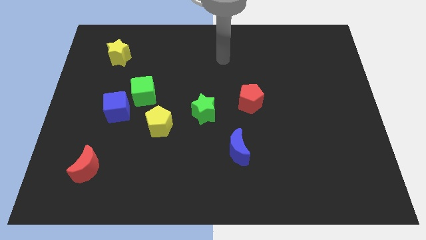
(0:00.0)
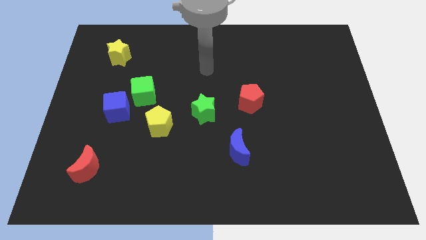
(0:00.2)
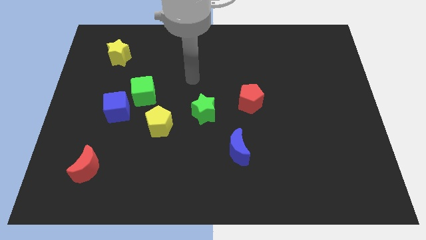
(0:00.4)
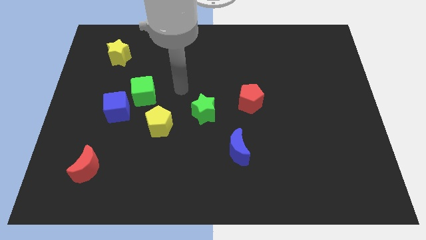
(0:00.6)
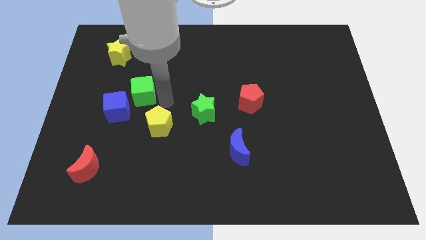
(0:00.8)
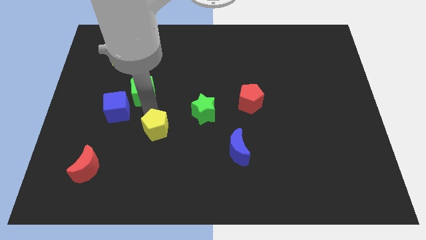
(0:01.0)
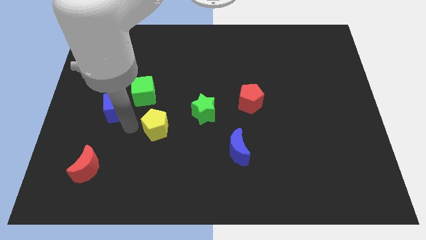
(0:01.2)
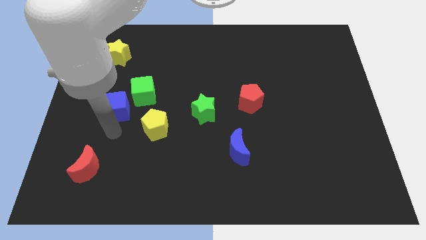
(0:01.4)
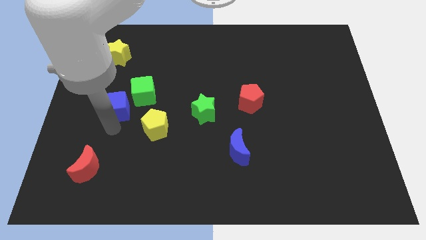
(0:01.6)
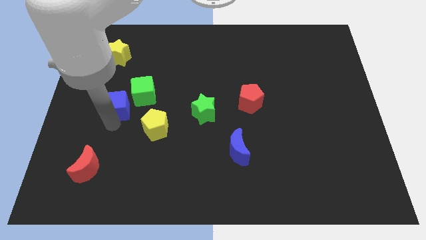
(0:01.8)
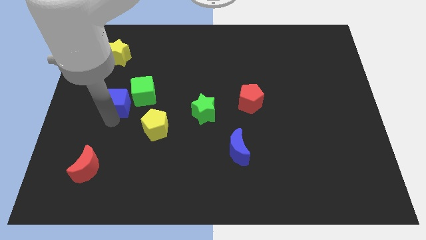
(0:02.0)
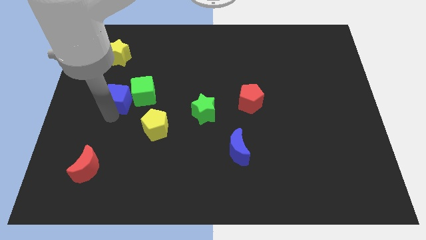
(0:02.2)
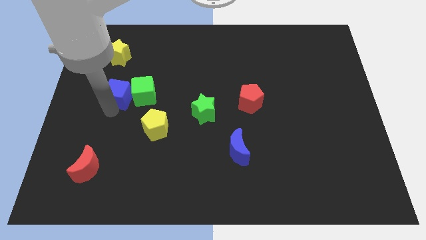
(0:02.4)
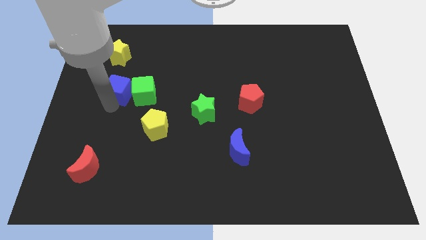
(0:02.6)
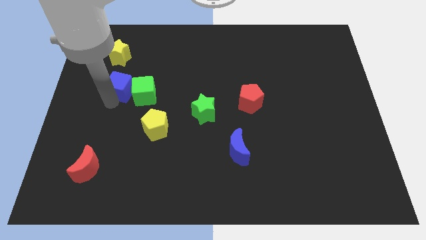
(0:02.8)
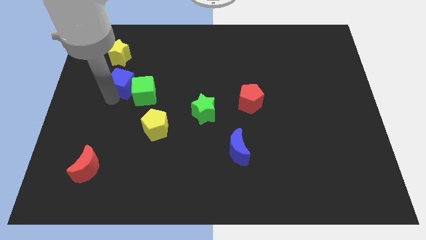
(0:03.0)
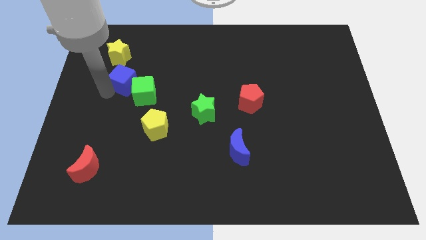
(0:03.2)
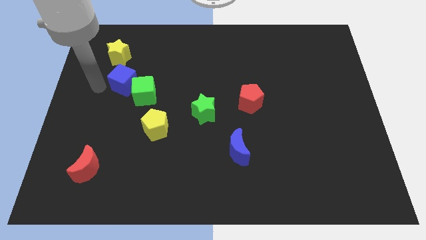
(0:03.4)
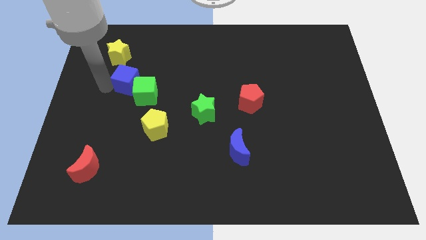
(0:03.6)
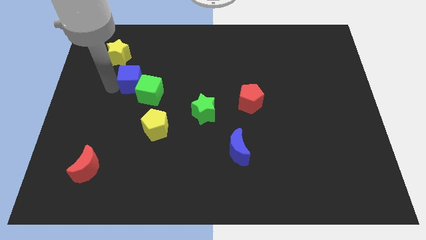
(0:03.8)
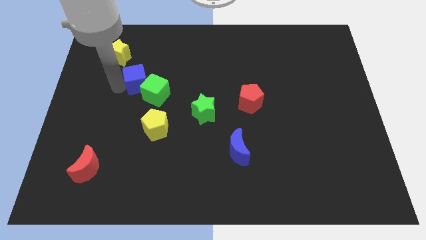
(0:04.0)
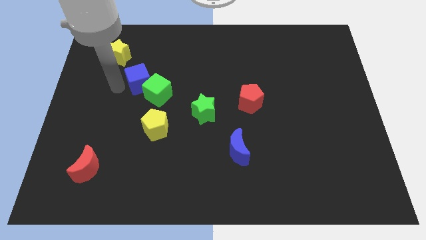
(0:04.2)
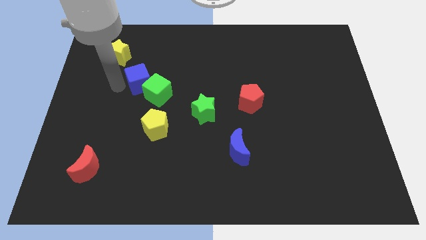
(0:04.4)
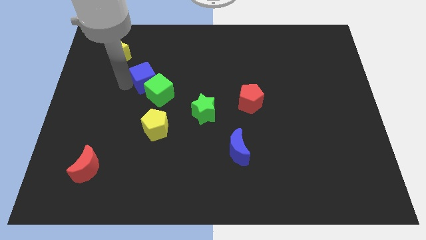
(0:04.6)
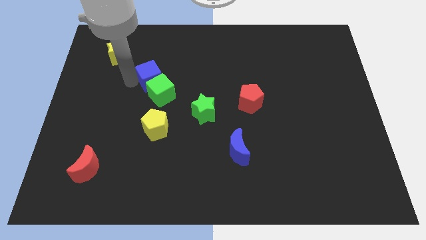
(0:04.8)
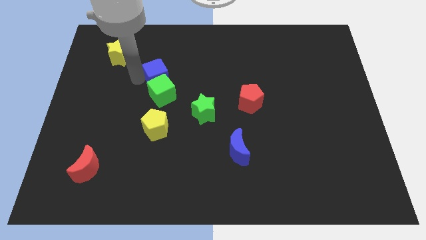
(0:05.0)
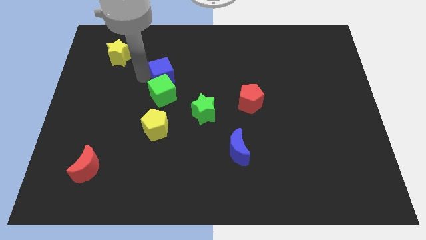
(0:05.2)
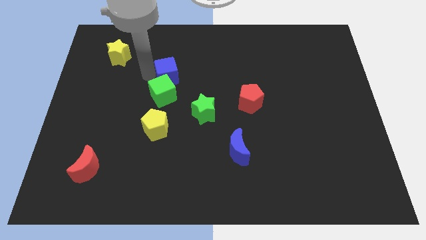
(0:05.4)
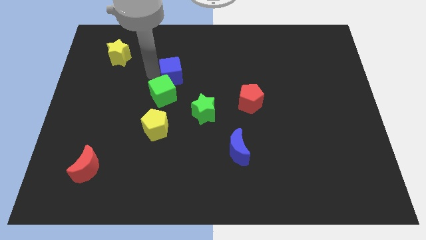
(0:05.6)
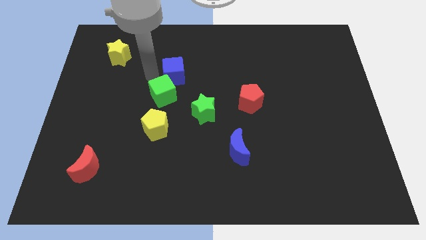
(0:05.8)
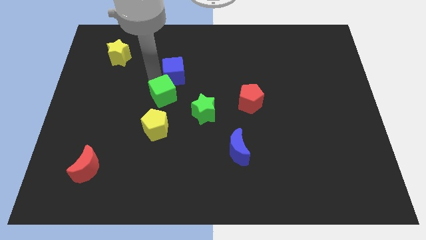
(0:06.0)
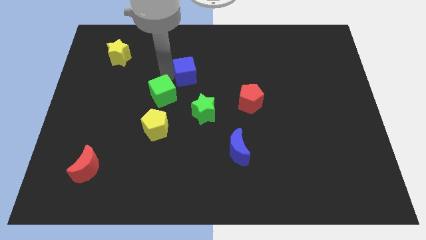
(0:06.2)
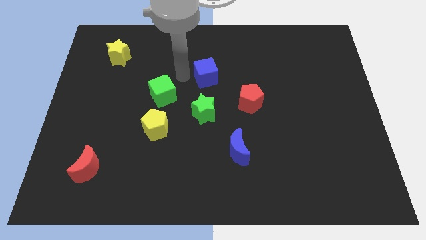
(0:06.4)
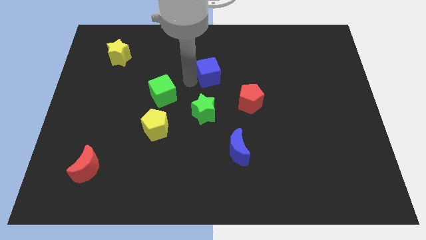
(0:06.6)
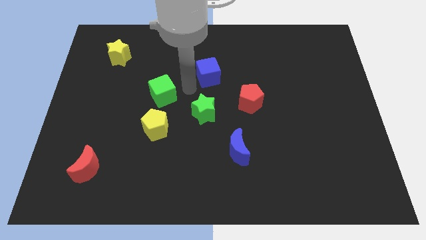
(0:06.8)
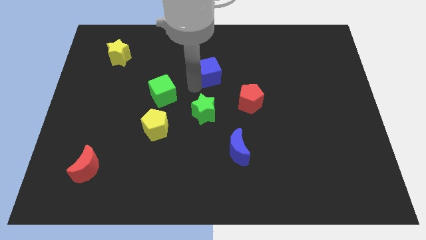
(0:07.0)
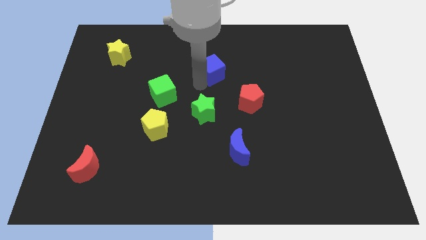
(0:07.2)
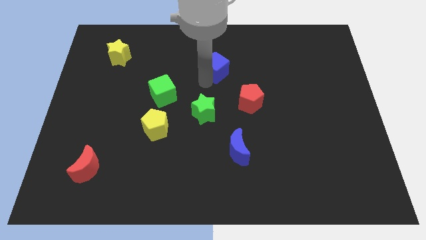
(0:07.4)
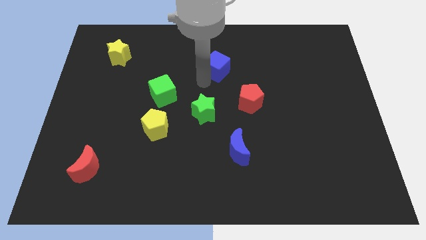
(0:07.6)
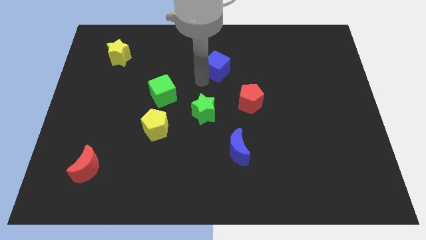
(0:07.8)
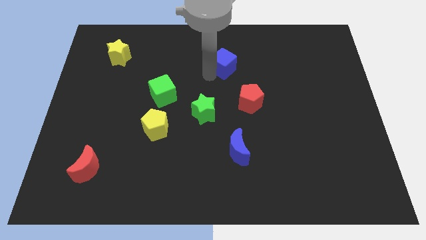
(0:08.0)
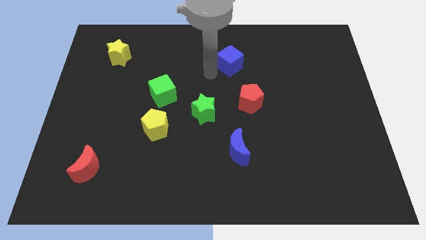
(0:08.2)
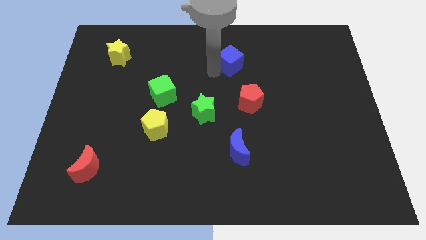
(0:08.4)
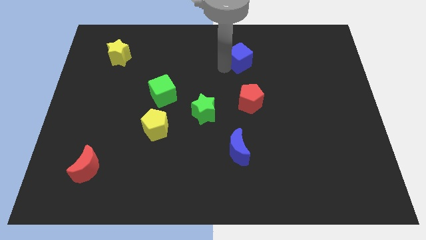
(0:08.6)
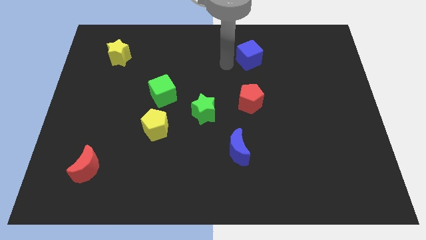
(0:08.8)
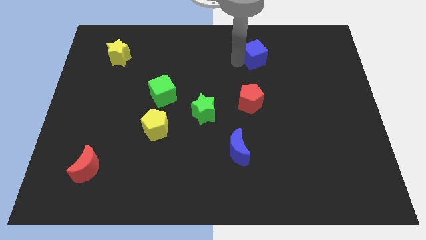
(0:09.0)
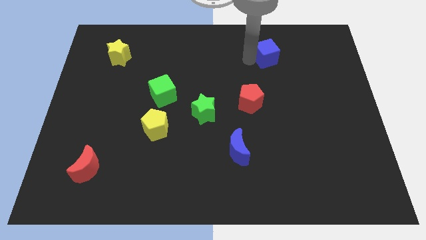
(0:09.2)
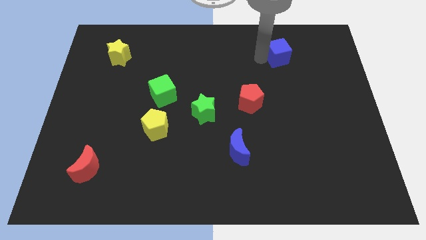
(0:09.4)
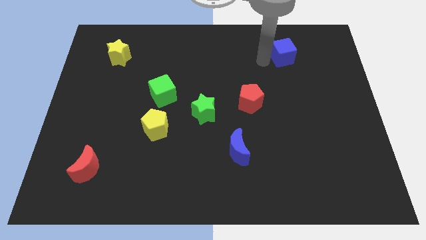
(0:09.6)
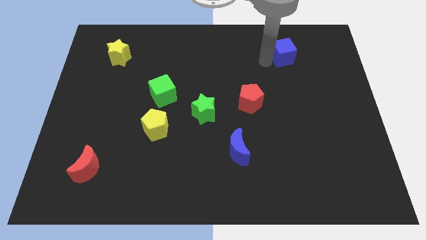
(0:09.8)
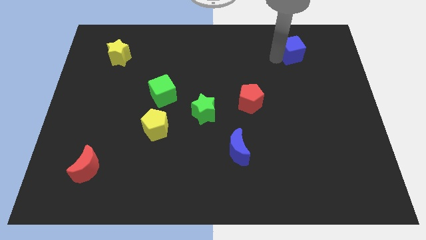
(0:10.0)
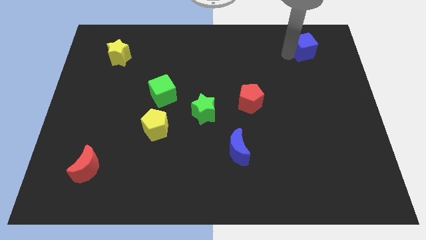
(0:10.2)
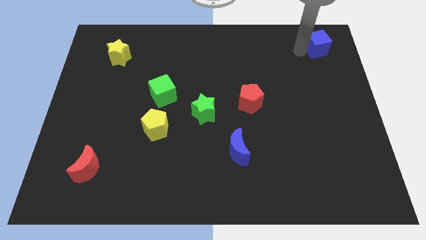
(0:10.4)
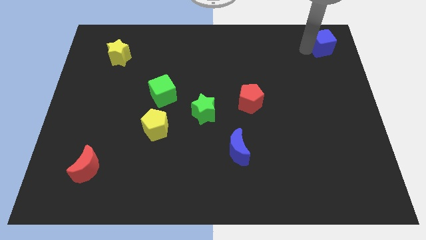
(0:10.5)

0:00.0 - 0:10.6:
push the blue cube to the upper right corner

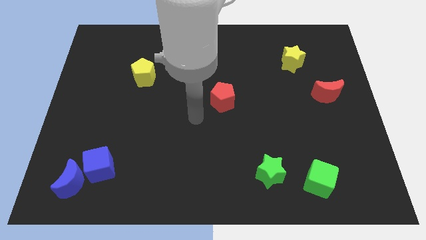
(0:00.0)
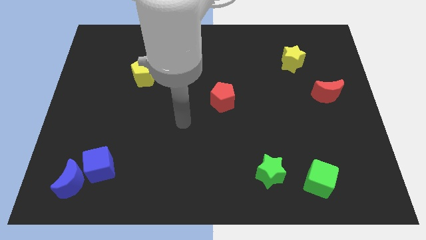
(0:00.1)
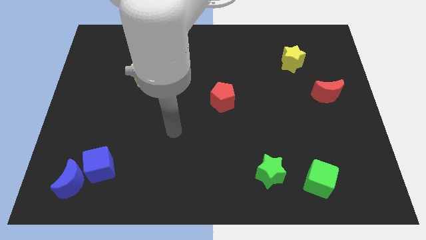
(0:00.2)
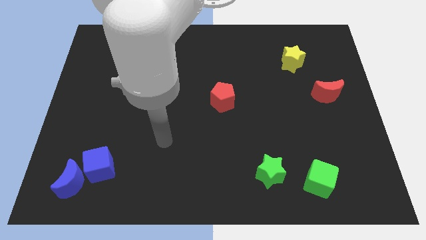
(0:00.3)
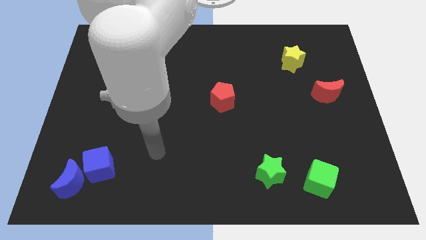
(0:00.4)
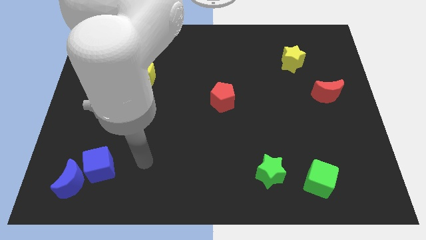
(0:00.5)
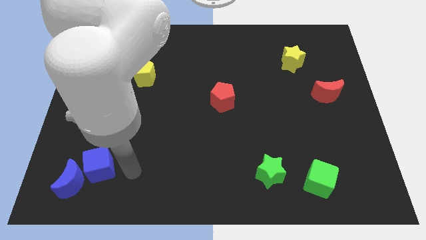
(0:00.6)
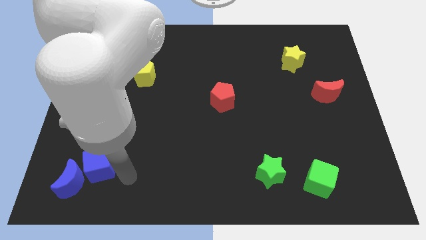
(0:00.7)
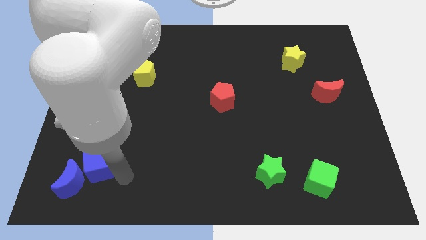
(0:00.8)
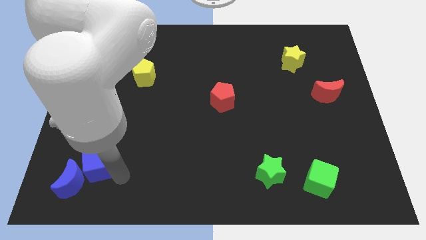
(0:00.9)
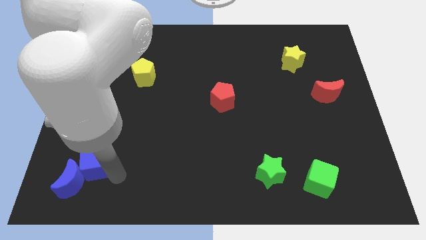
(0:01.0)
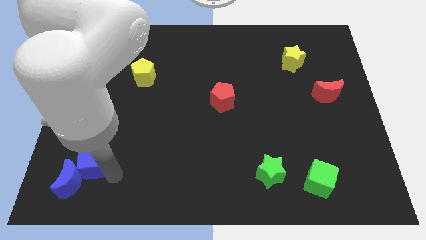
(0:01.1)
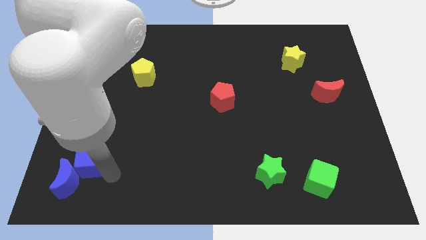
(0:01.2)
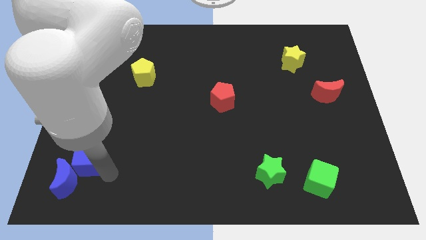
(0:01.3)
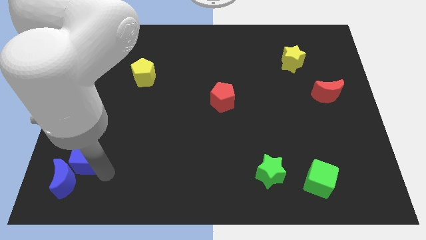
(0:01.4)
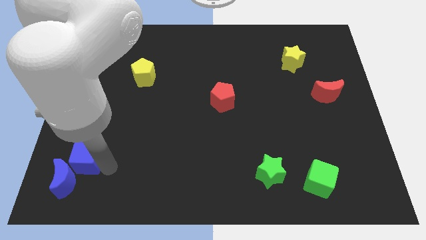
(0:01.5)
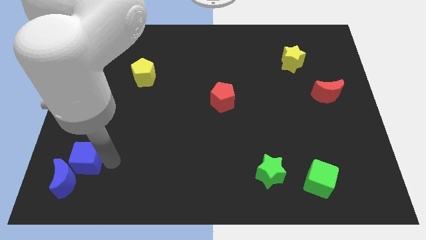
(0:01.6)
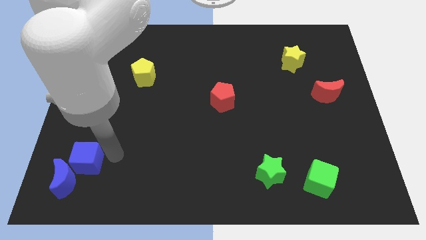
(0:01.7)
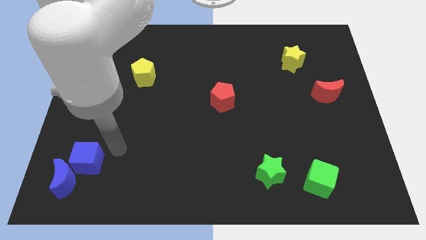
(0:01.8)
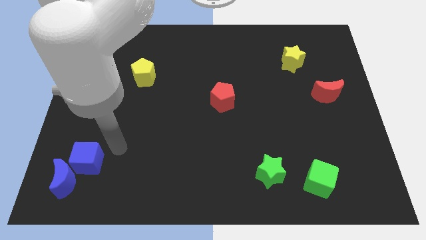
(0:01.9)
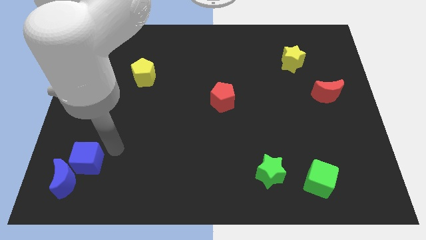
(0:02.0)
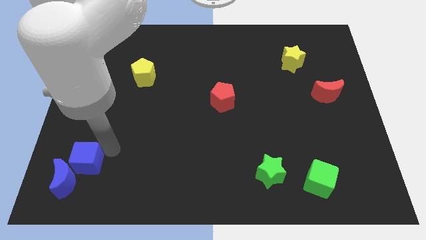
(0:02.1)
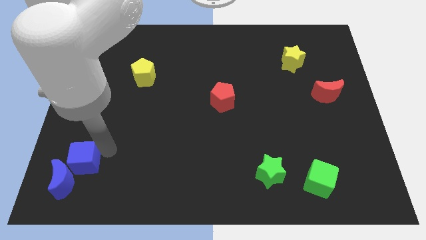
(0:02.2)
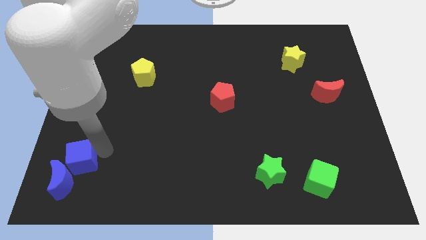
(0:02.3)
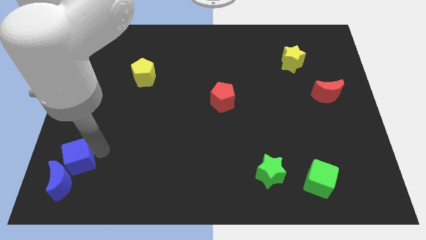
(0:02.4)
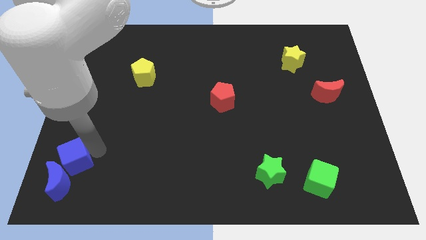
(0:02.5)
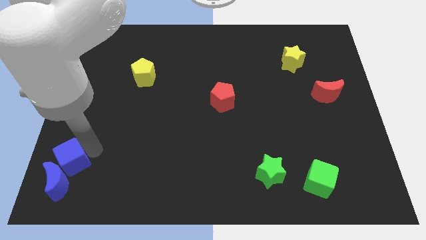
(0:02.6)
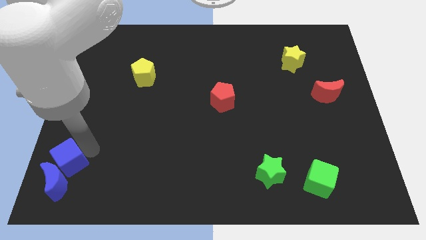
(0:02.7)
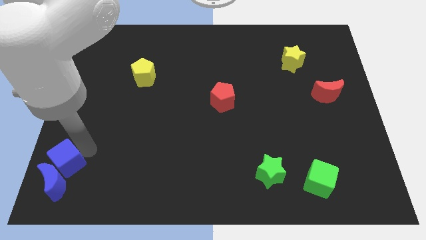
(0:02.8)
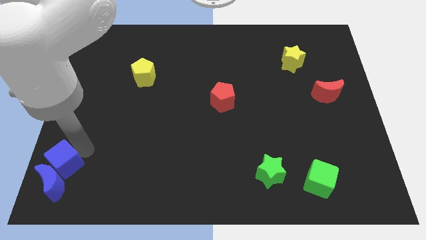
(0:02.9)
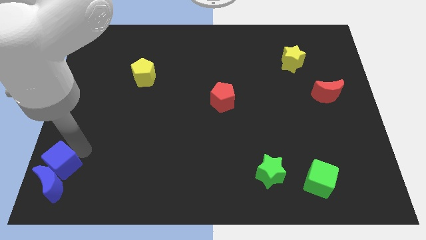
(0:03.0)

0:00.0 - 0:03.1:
move the blue cube to the lower left corner
